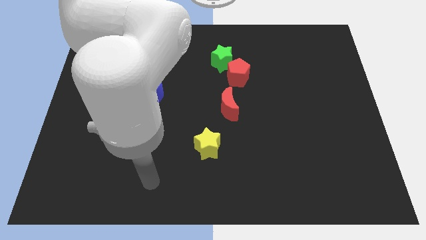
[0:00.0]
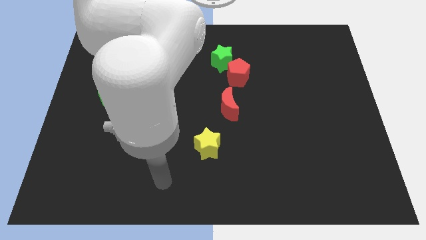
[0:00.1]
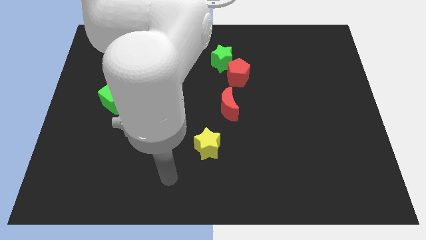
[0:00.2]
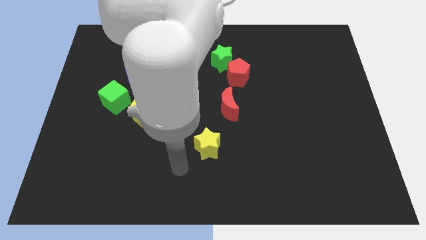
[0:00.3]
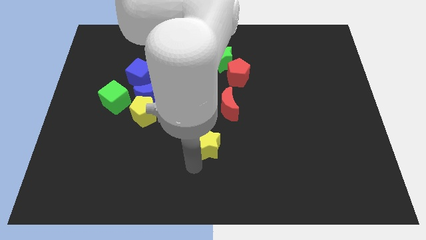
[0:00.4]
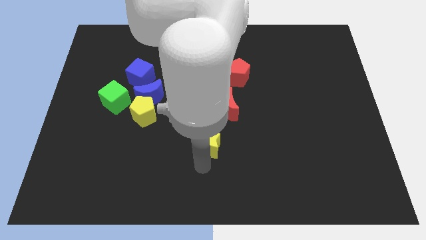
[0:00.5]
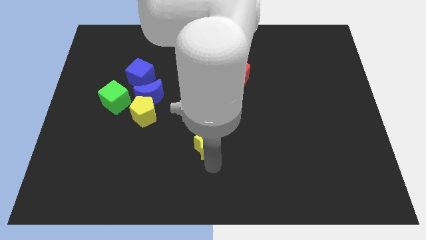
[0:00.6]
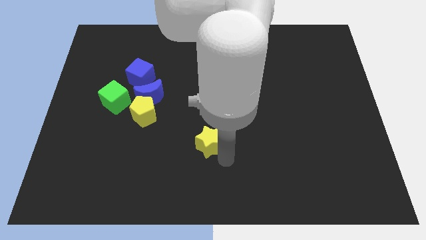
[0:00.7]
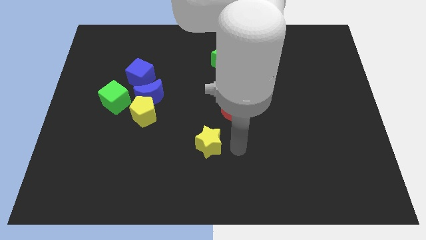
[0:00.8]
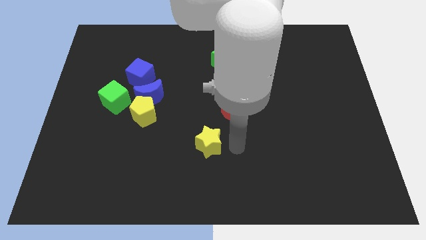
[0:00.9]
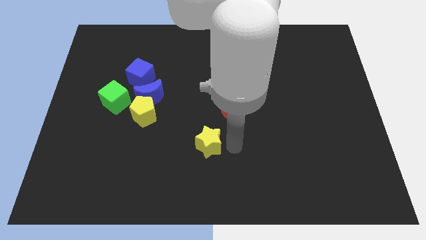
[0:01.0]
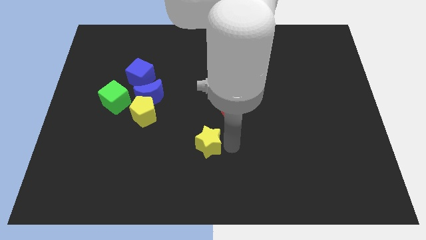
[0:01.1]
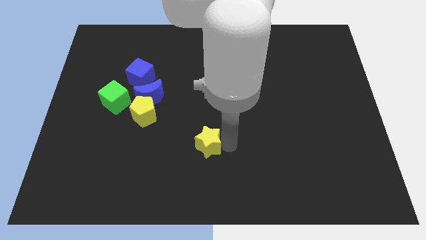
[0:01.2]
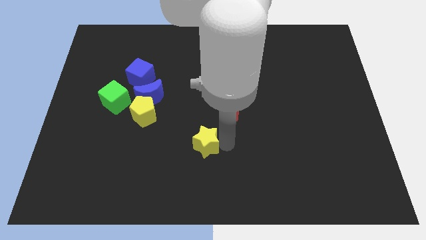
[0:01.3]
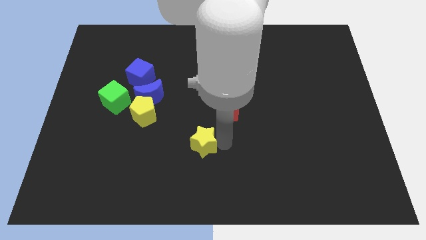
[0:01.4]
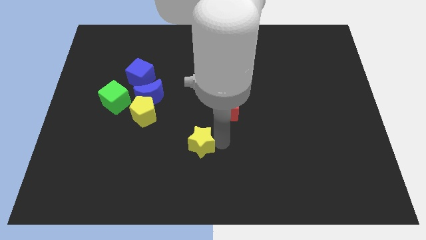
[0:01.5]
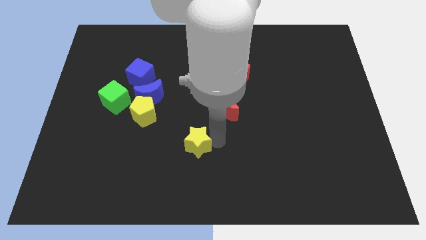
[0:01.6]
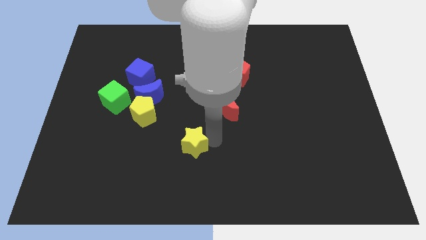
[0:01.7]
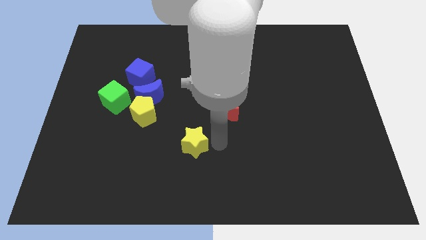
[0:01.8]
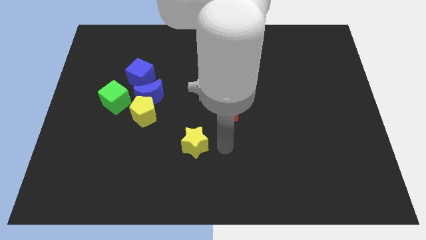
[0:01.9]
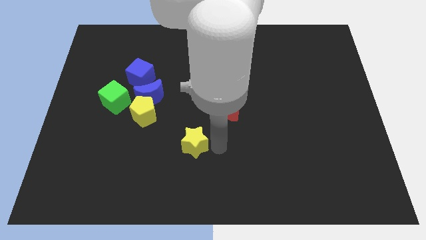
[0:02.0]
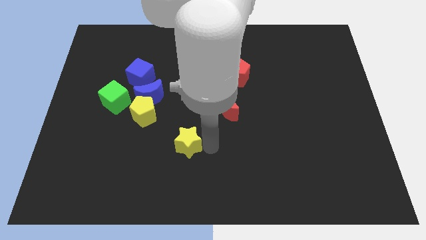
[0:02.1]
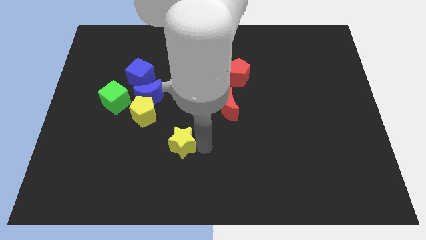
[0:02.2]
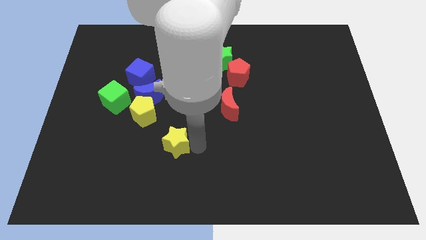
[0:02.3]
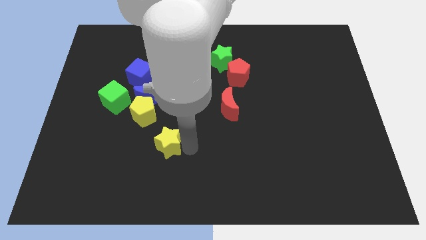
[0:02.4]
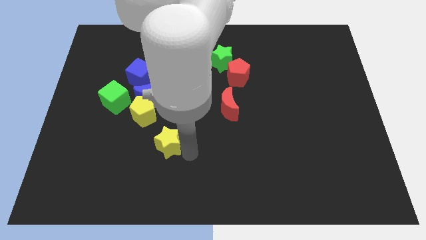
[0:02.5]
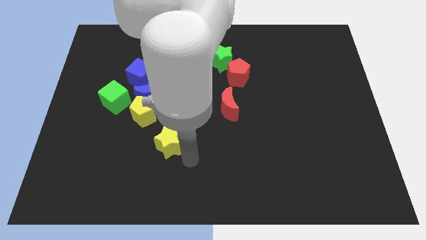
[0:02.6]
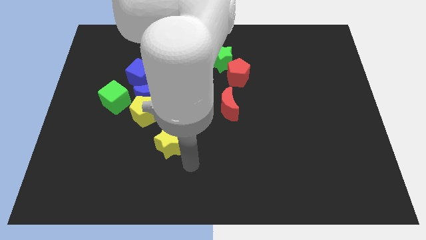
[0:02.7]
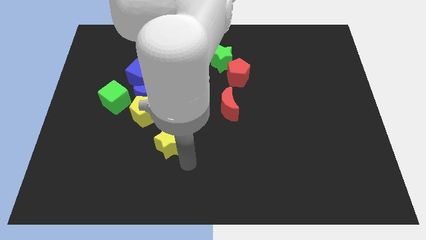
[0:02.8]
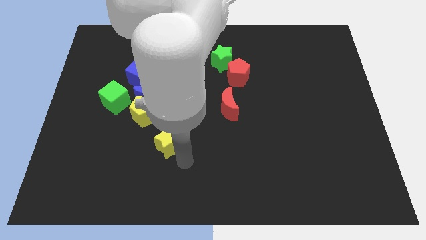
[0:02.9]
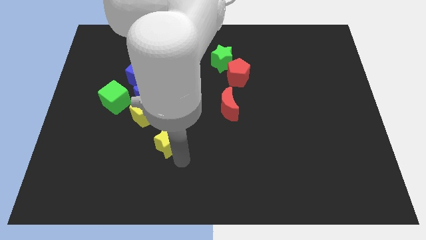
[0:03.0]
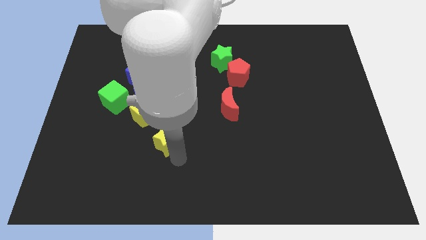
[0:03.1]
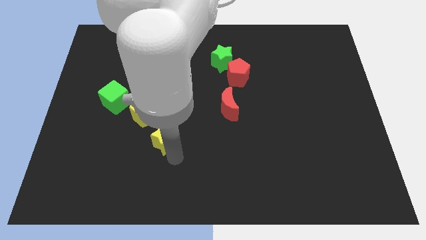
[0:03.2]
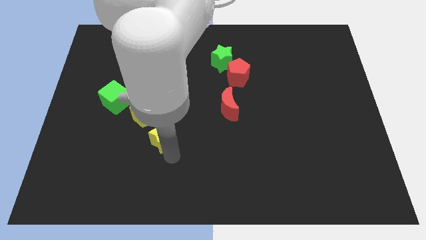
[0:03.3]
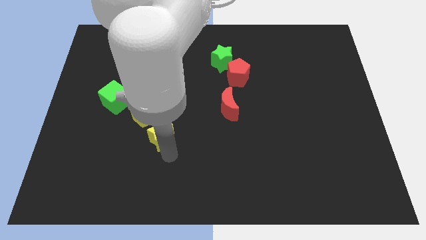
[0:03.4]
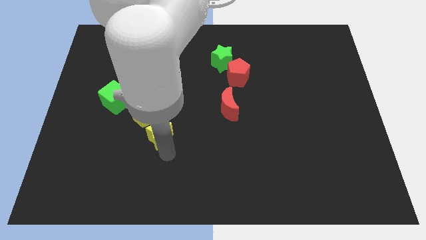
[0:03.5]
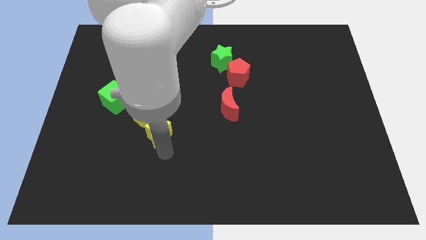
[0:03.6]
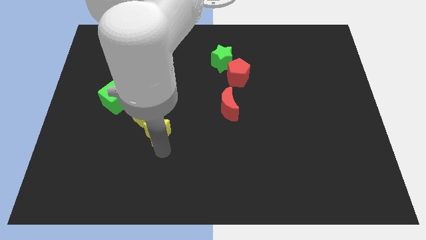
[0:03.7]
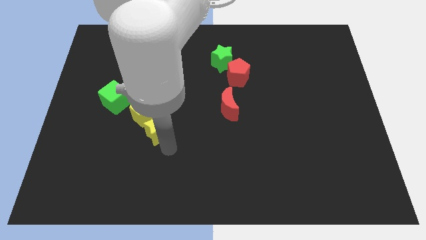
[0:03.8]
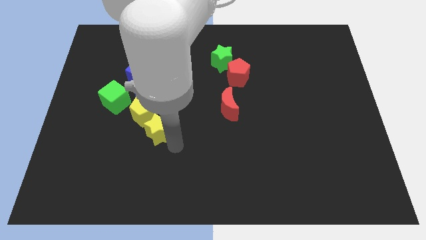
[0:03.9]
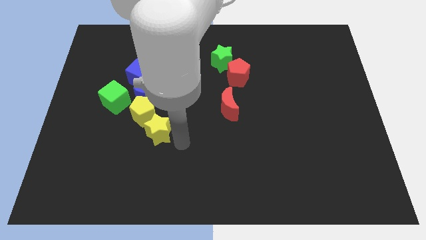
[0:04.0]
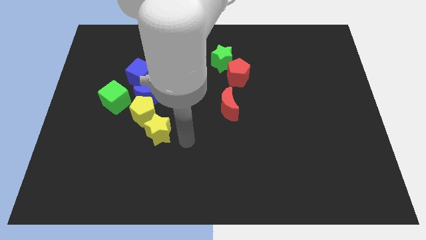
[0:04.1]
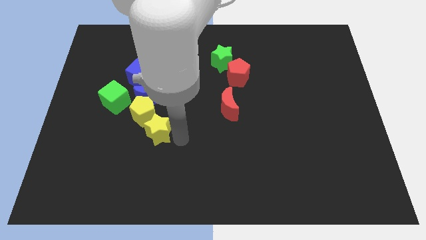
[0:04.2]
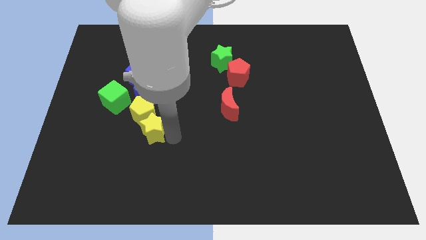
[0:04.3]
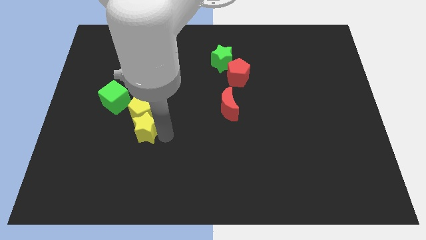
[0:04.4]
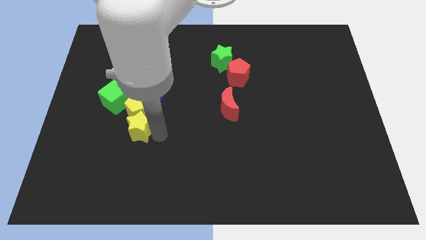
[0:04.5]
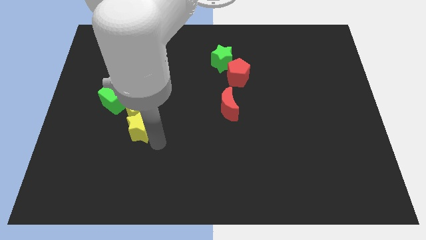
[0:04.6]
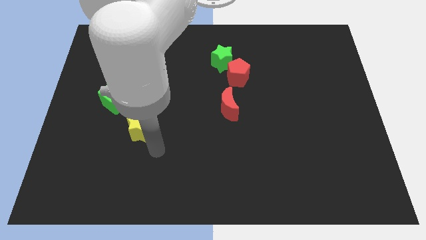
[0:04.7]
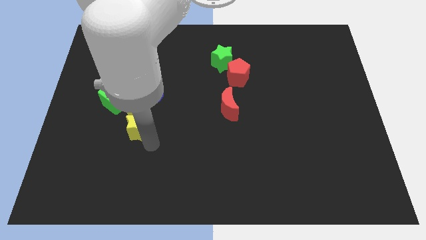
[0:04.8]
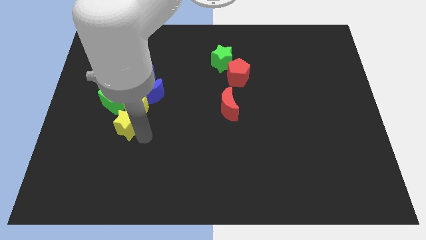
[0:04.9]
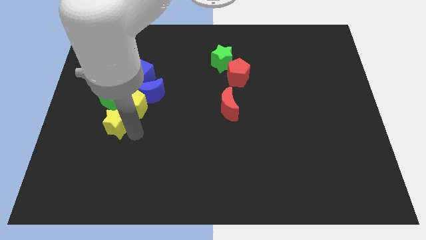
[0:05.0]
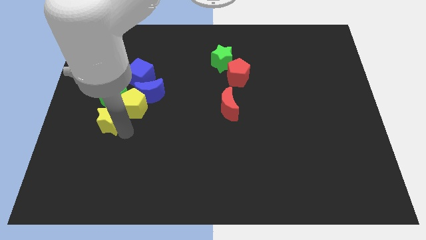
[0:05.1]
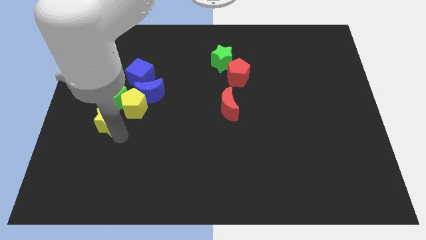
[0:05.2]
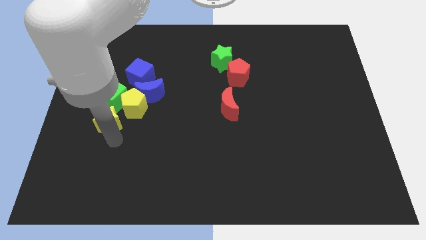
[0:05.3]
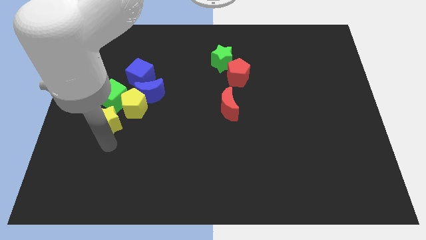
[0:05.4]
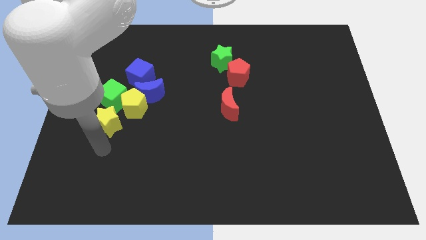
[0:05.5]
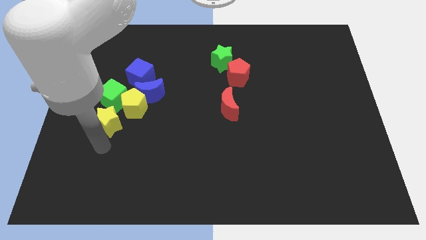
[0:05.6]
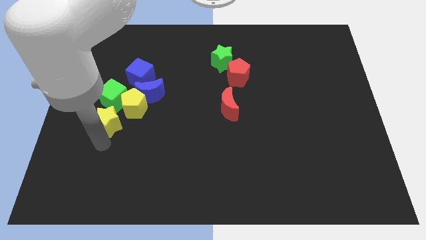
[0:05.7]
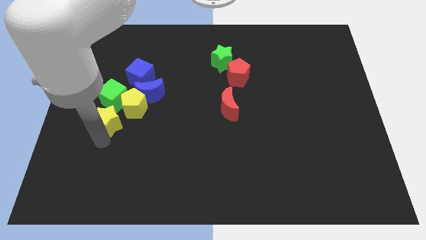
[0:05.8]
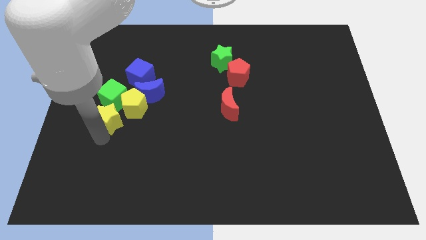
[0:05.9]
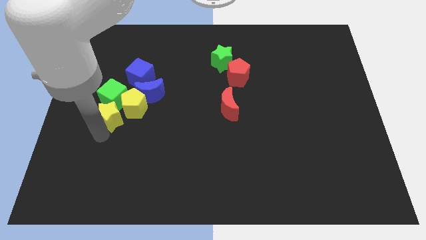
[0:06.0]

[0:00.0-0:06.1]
slide the yellow star next to the green cube

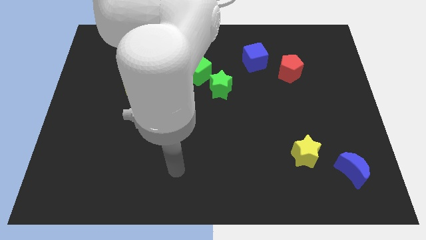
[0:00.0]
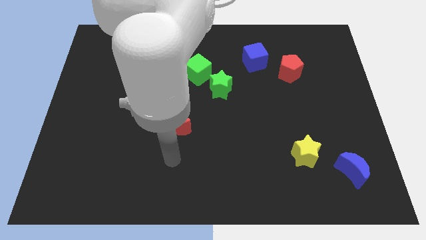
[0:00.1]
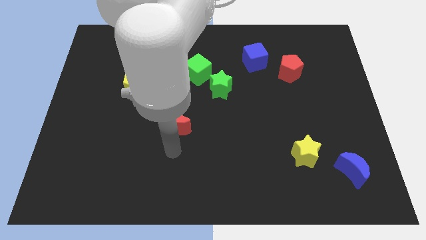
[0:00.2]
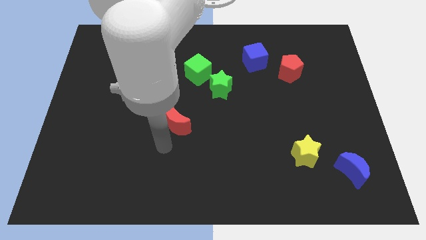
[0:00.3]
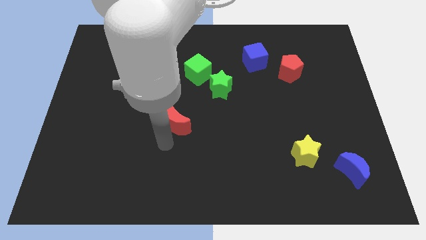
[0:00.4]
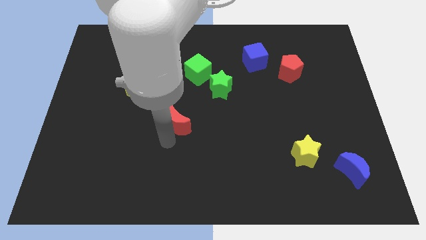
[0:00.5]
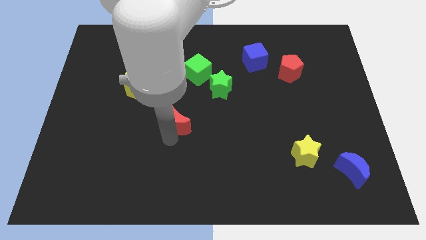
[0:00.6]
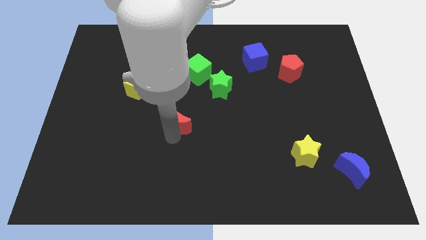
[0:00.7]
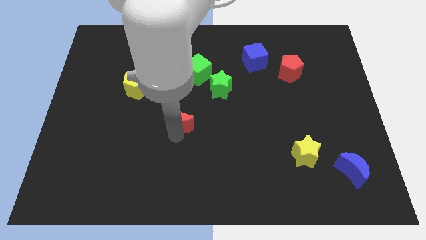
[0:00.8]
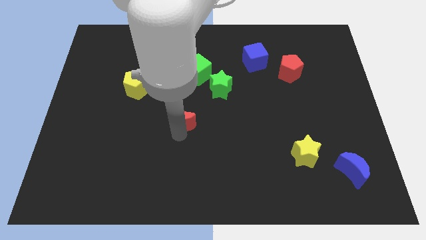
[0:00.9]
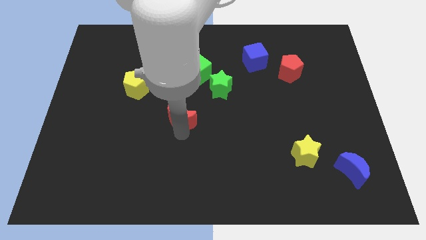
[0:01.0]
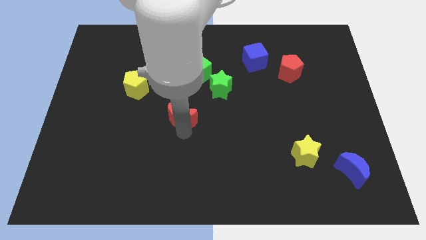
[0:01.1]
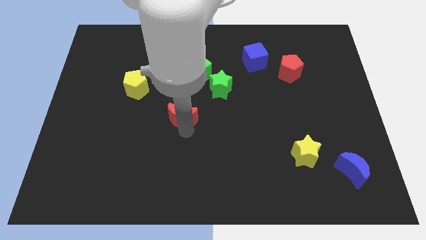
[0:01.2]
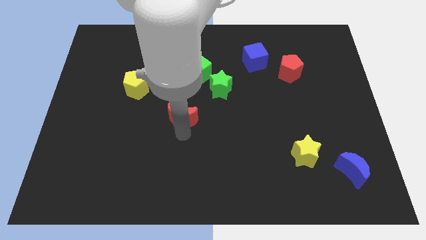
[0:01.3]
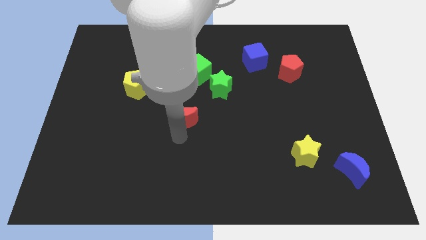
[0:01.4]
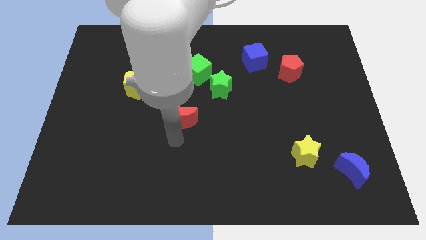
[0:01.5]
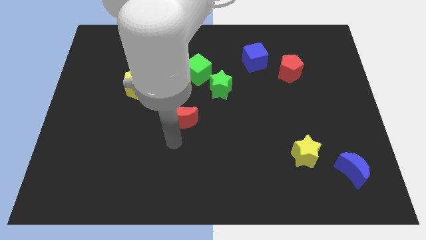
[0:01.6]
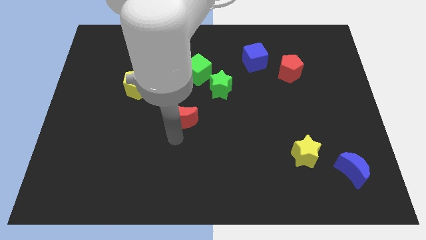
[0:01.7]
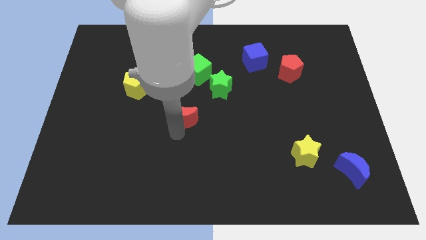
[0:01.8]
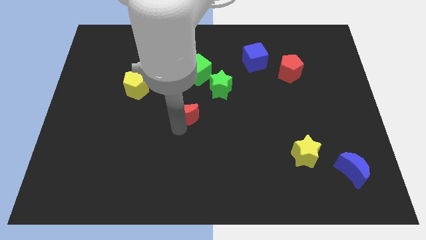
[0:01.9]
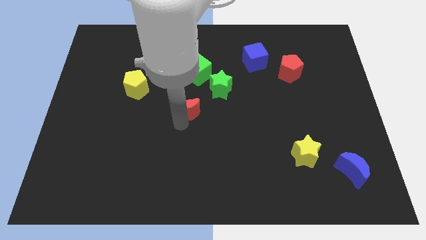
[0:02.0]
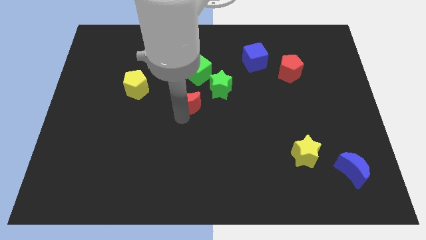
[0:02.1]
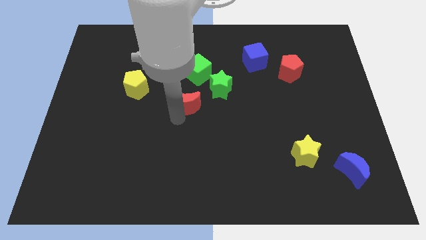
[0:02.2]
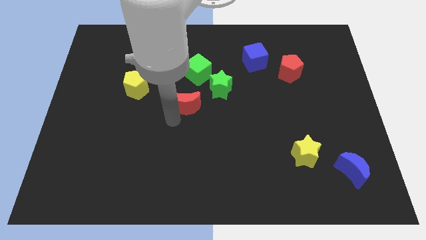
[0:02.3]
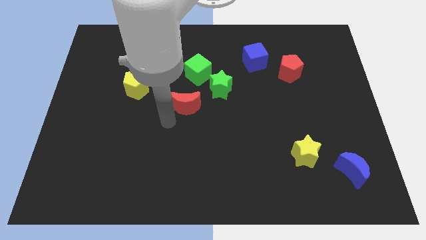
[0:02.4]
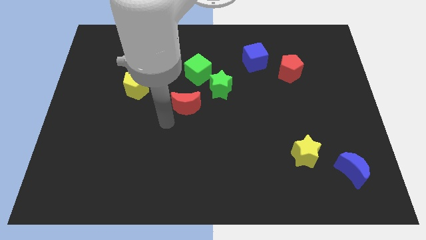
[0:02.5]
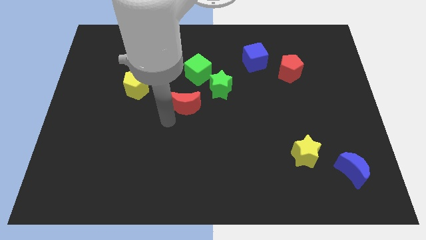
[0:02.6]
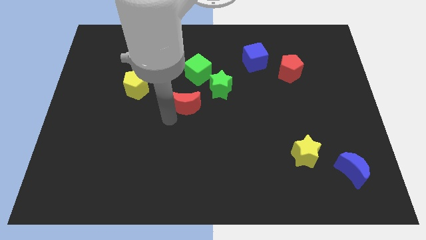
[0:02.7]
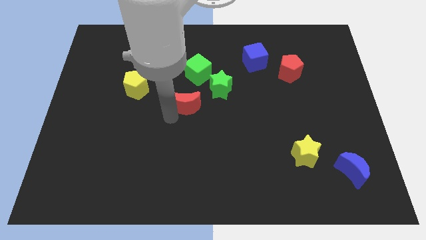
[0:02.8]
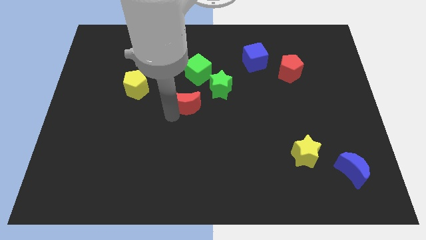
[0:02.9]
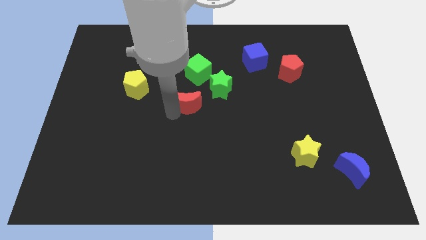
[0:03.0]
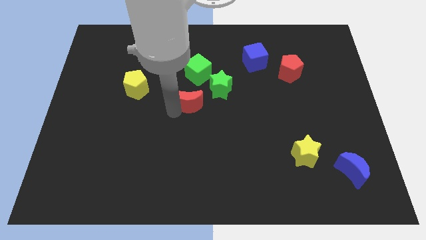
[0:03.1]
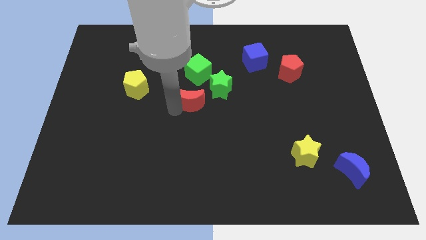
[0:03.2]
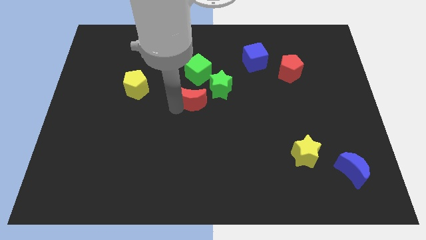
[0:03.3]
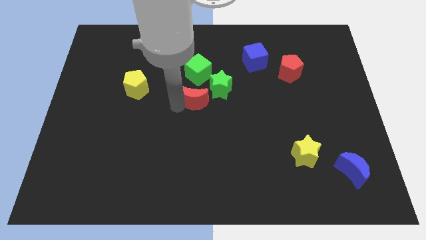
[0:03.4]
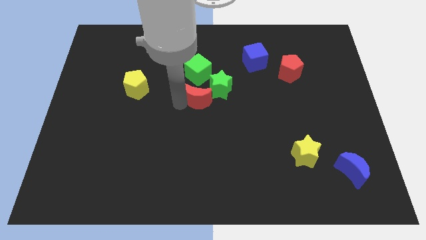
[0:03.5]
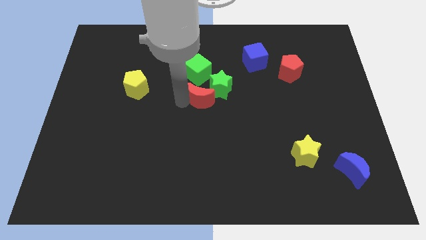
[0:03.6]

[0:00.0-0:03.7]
slide the red moon close to the green star
